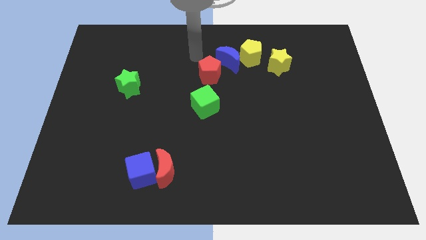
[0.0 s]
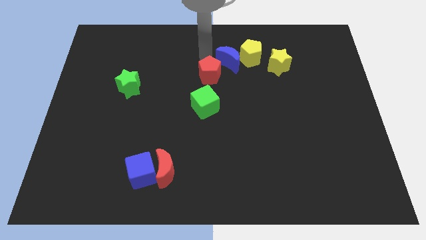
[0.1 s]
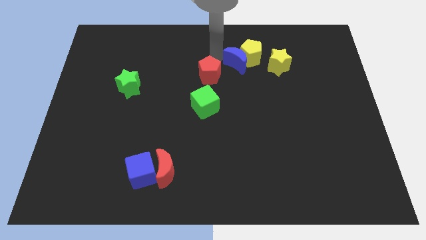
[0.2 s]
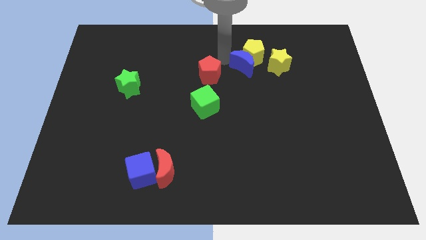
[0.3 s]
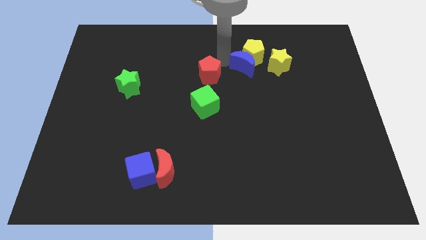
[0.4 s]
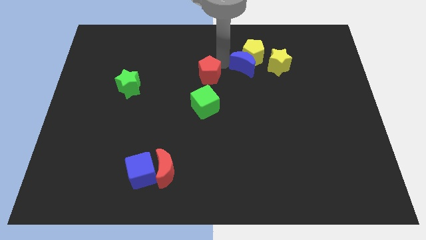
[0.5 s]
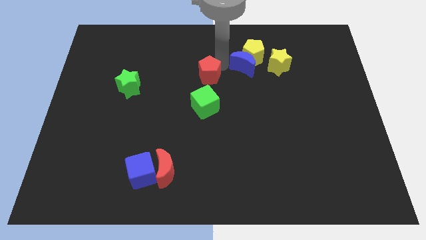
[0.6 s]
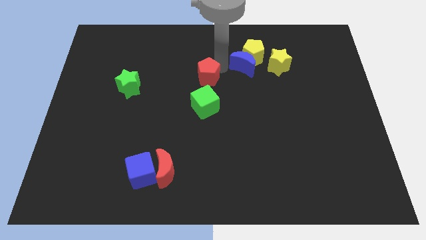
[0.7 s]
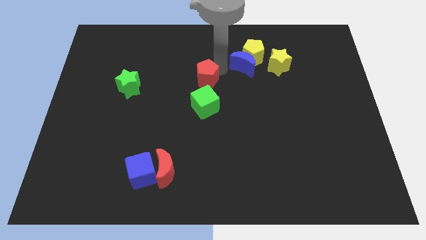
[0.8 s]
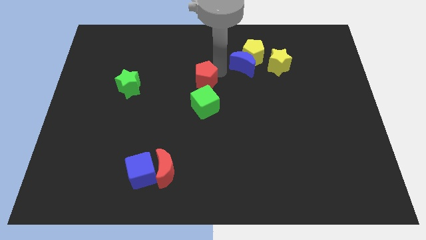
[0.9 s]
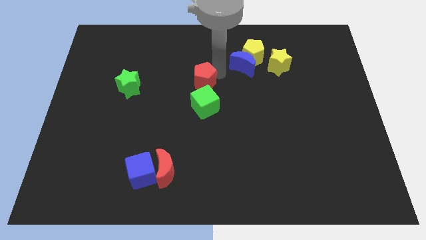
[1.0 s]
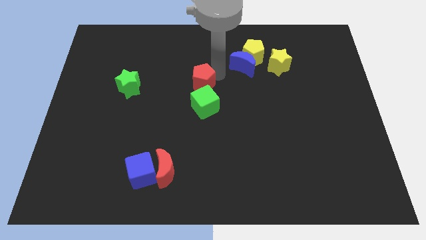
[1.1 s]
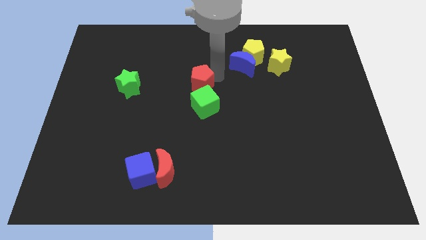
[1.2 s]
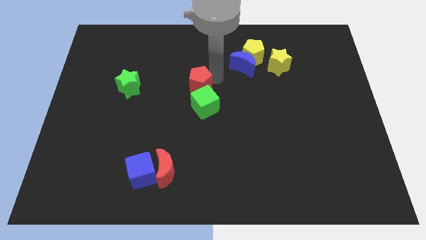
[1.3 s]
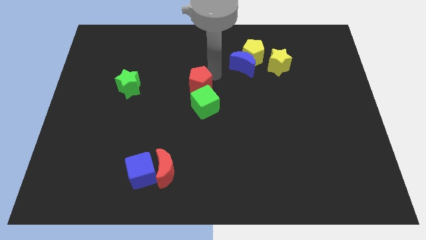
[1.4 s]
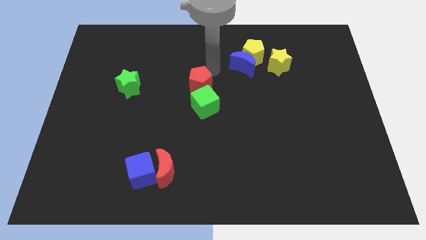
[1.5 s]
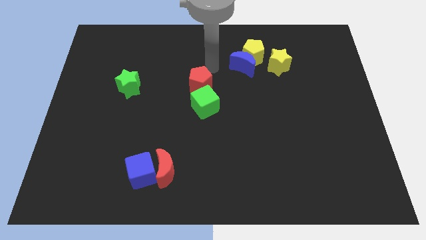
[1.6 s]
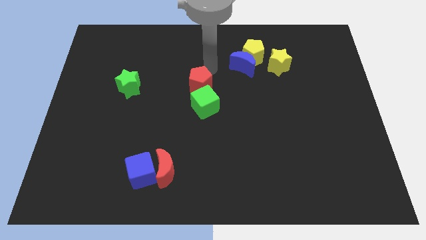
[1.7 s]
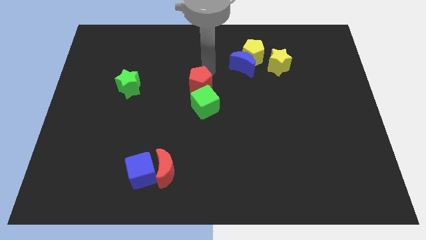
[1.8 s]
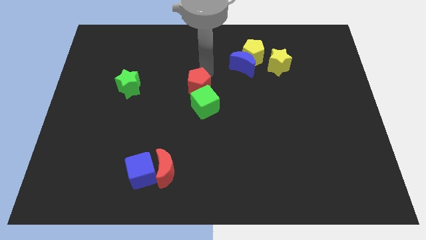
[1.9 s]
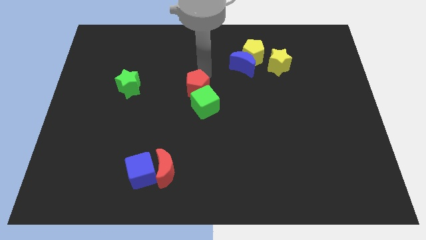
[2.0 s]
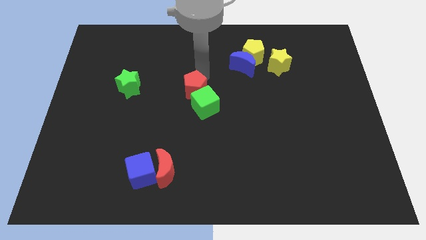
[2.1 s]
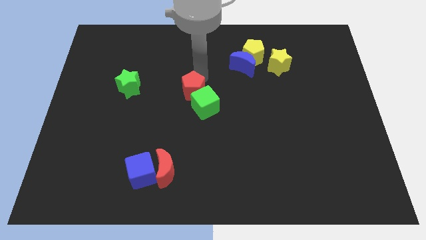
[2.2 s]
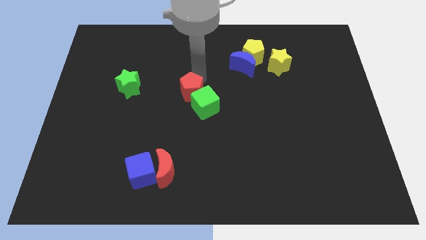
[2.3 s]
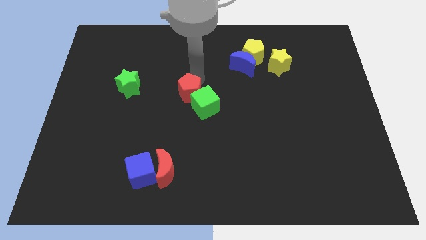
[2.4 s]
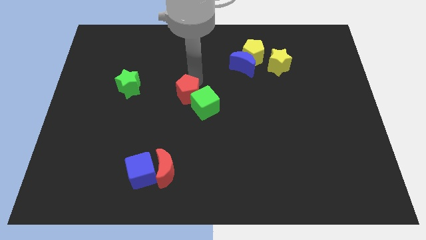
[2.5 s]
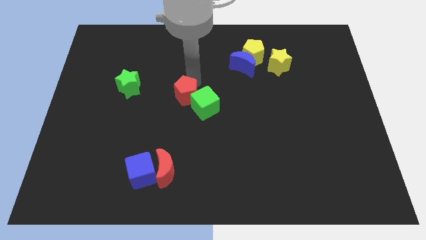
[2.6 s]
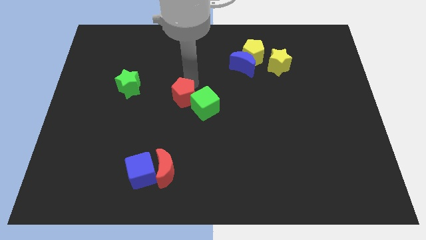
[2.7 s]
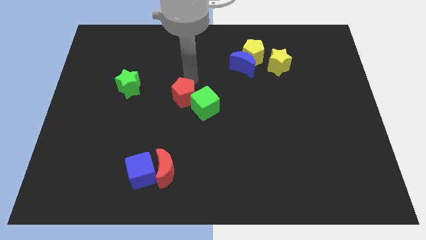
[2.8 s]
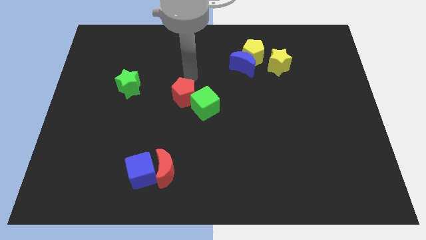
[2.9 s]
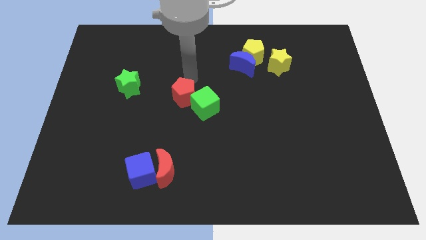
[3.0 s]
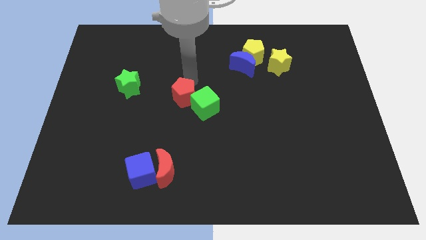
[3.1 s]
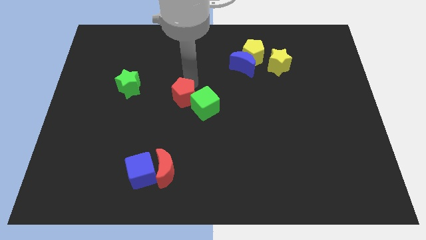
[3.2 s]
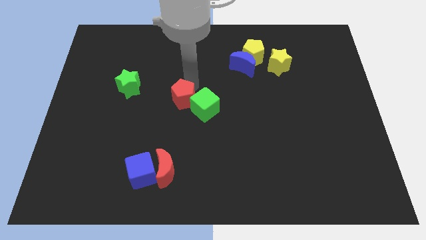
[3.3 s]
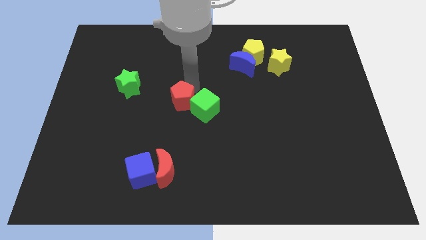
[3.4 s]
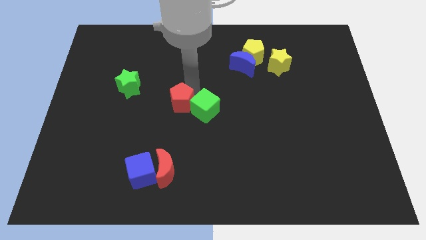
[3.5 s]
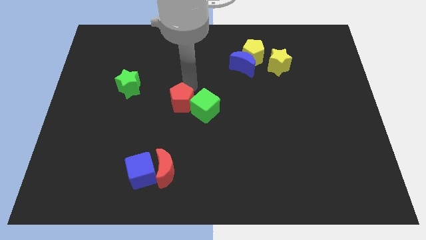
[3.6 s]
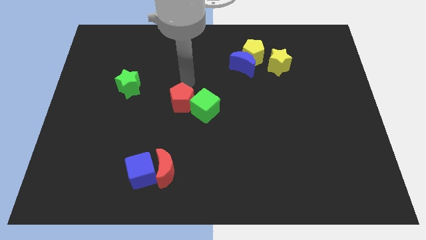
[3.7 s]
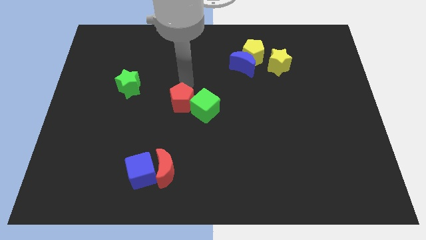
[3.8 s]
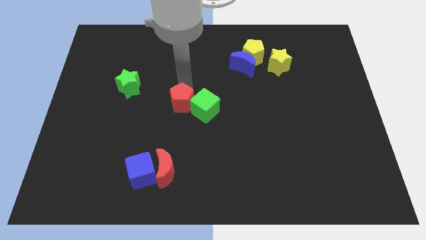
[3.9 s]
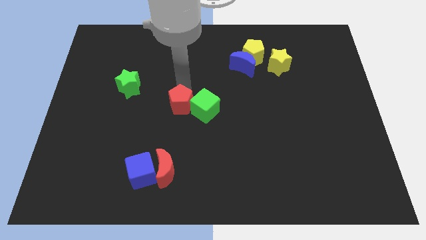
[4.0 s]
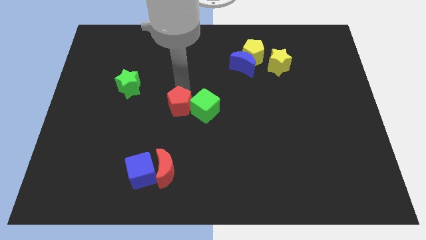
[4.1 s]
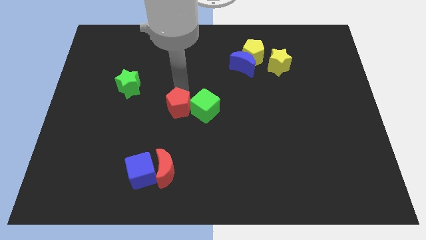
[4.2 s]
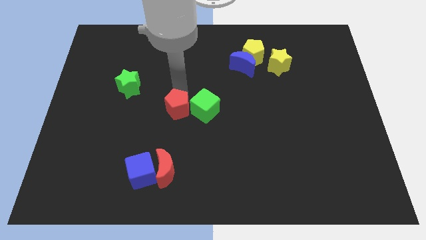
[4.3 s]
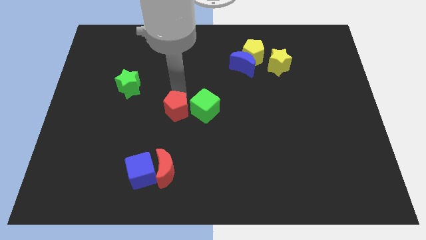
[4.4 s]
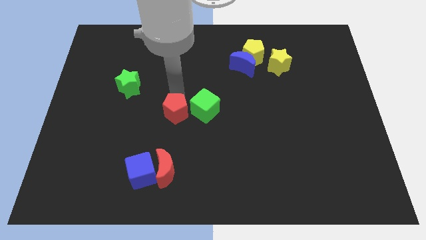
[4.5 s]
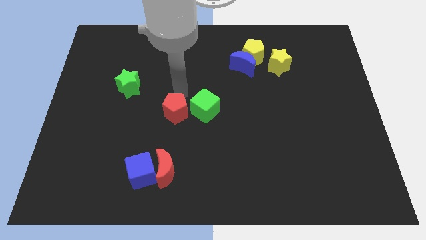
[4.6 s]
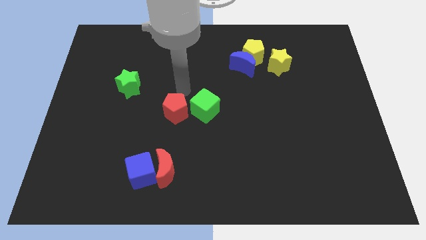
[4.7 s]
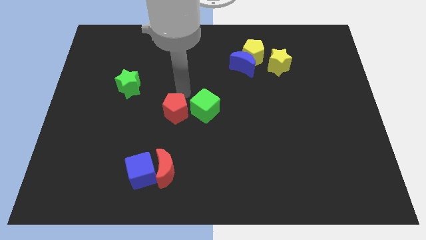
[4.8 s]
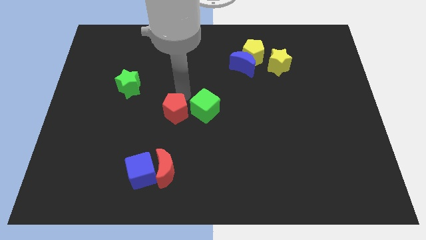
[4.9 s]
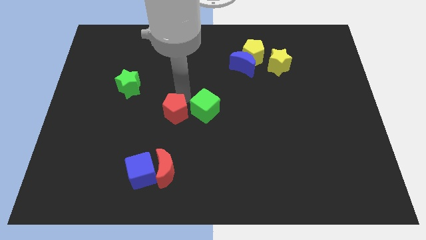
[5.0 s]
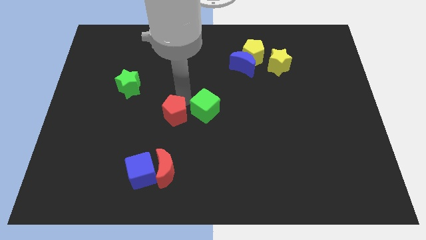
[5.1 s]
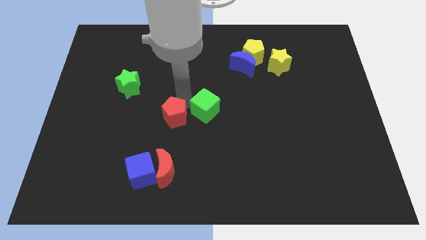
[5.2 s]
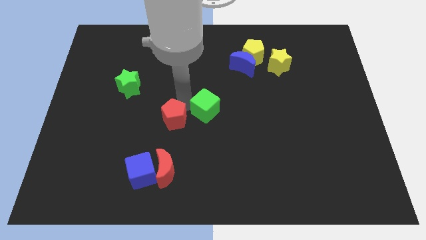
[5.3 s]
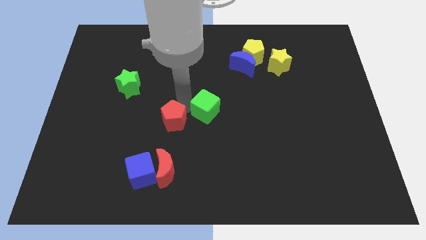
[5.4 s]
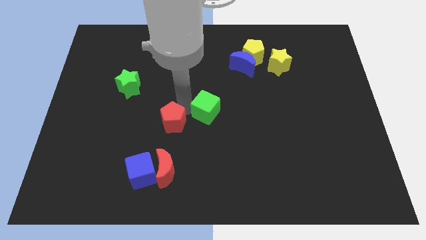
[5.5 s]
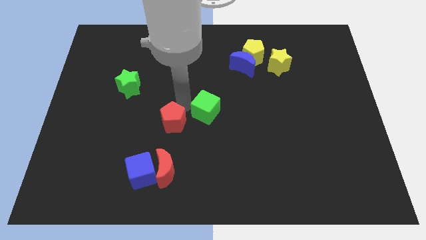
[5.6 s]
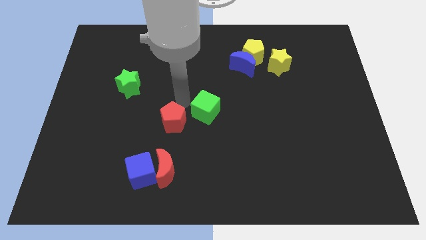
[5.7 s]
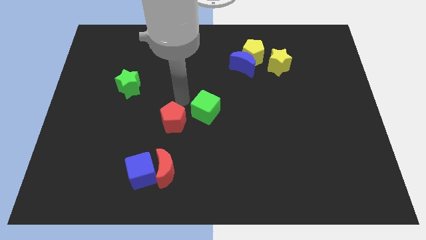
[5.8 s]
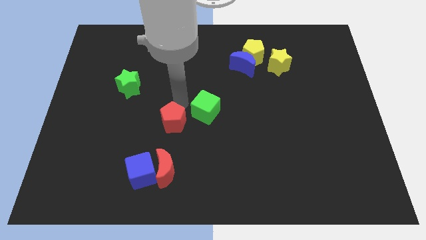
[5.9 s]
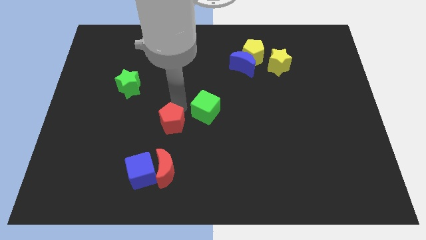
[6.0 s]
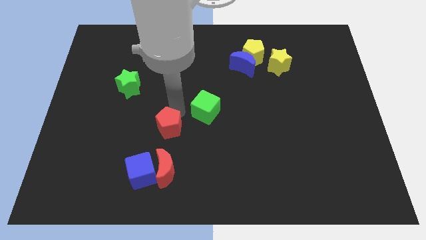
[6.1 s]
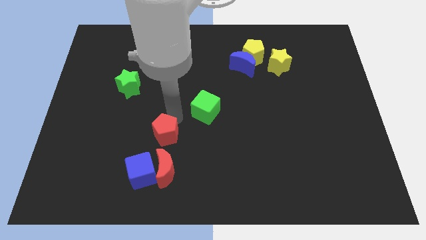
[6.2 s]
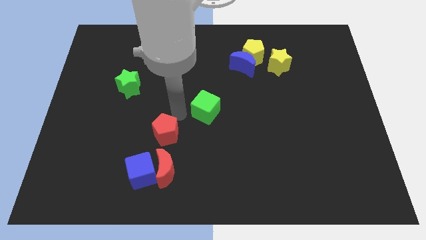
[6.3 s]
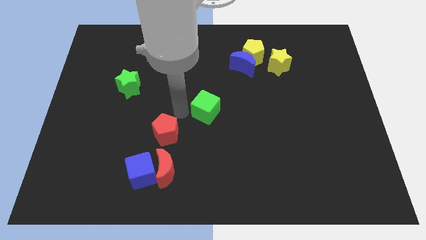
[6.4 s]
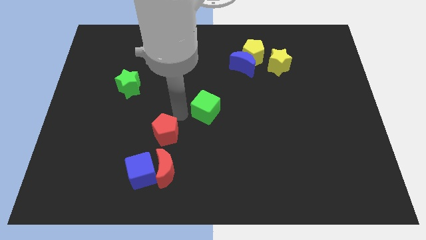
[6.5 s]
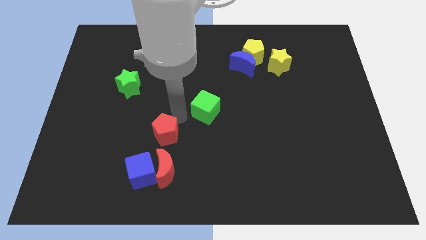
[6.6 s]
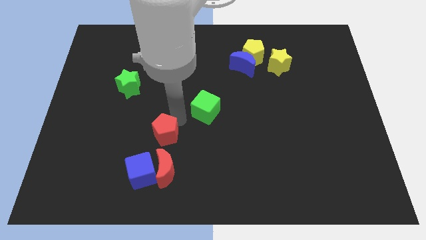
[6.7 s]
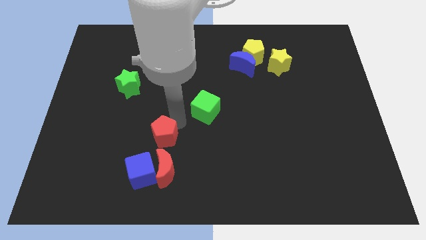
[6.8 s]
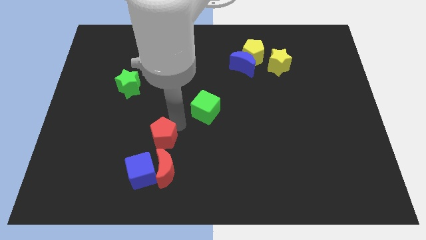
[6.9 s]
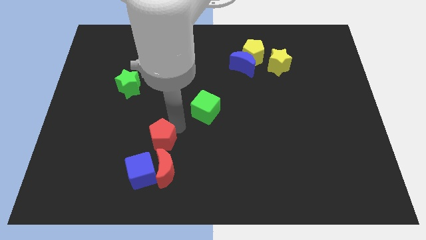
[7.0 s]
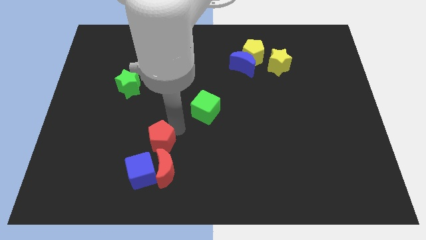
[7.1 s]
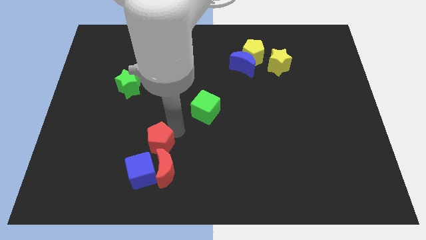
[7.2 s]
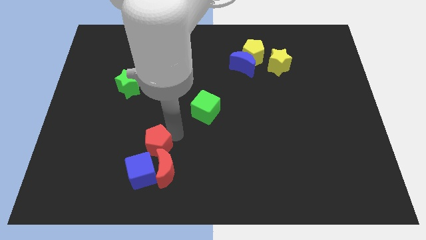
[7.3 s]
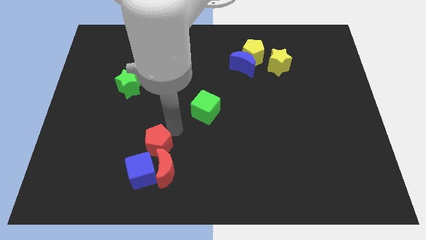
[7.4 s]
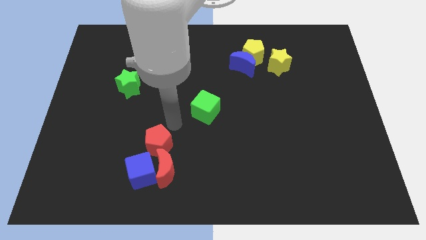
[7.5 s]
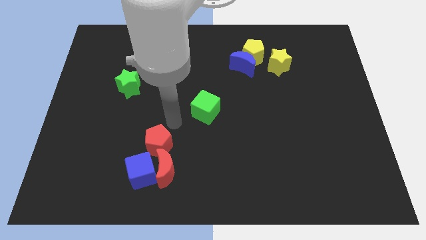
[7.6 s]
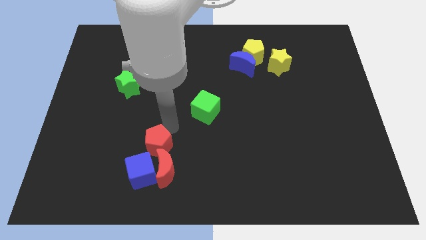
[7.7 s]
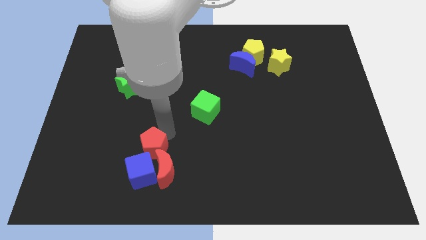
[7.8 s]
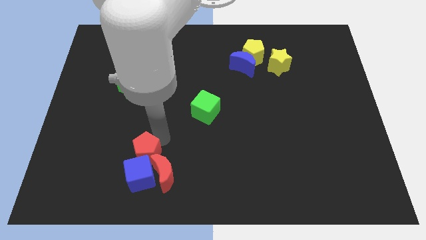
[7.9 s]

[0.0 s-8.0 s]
push the red pentagon to the blue cube
